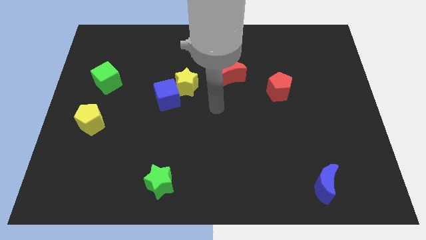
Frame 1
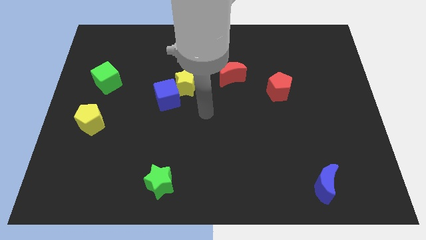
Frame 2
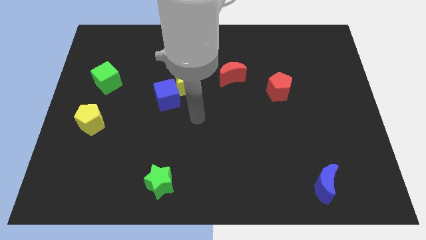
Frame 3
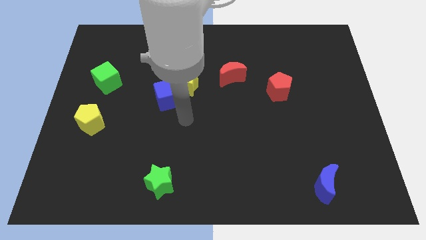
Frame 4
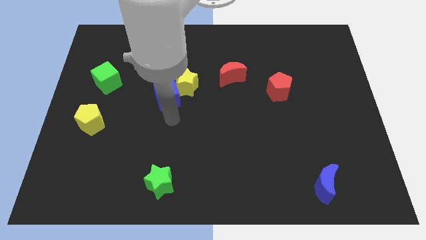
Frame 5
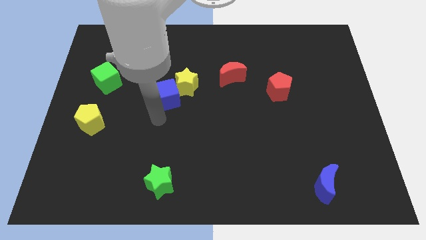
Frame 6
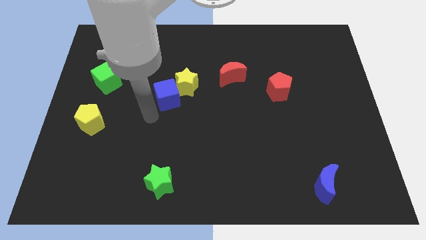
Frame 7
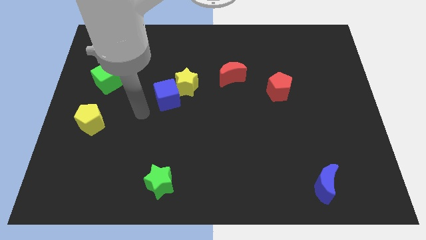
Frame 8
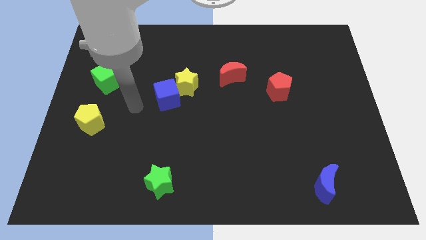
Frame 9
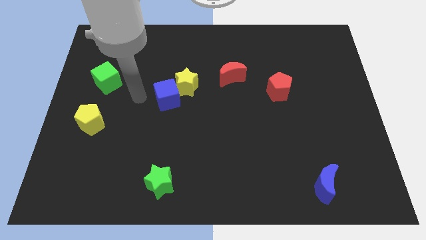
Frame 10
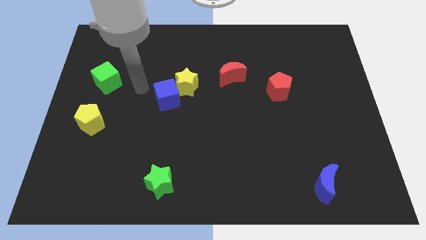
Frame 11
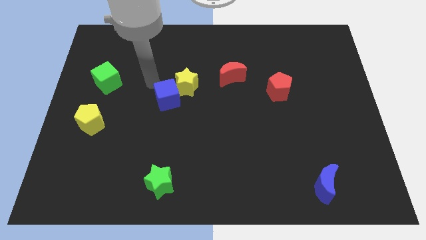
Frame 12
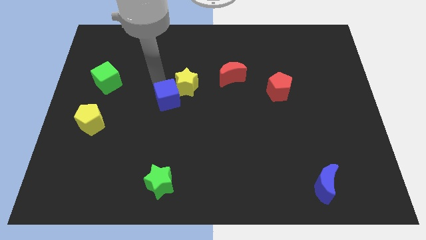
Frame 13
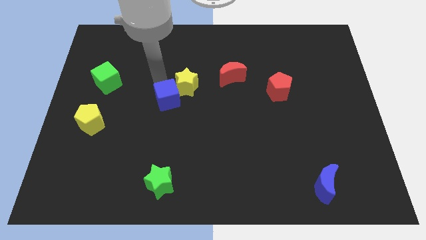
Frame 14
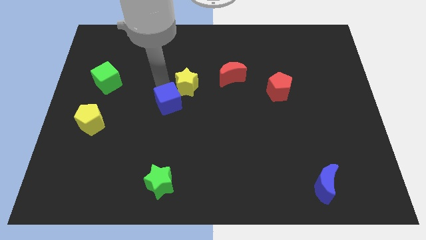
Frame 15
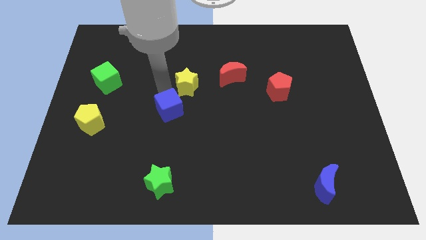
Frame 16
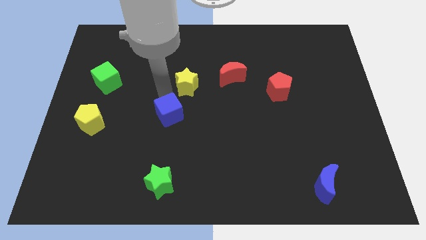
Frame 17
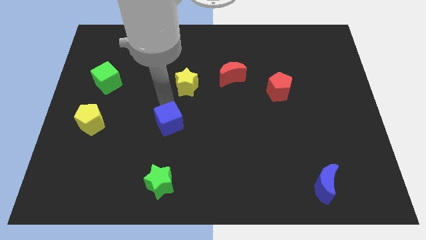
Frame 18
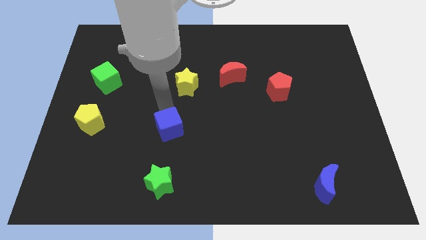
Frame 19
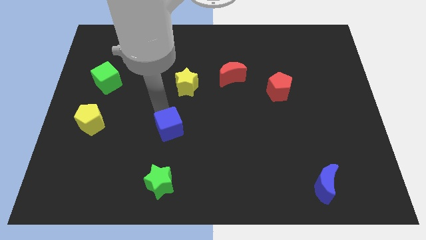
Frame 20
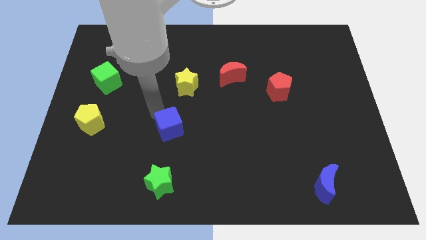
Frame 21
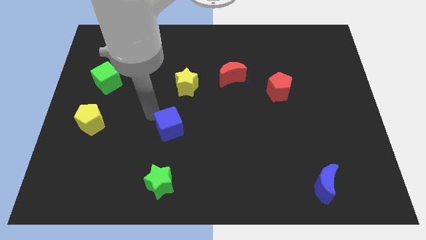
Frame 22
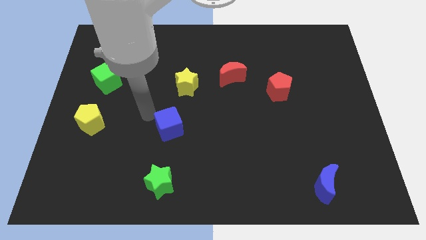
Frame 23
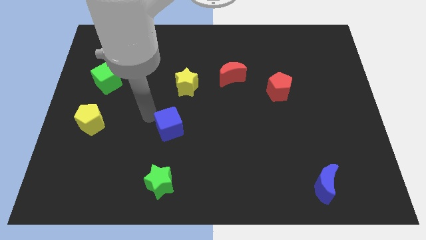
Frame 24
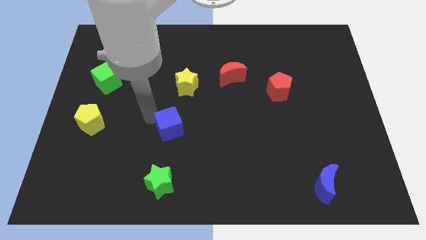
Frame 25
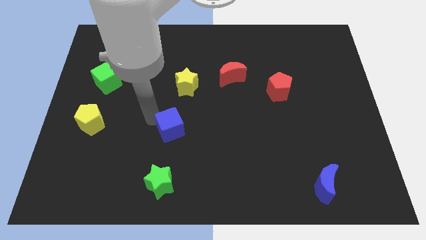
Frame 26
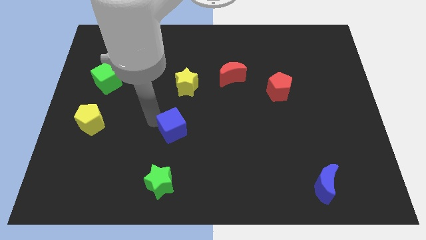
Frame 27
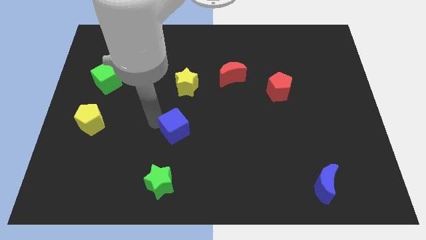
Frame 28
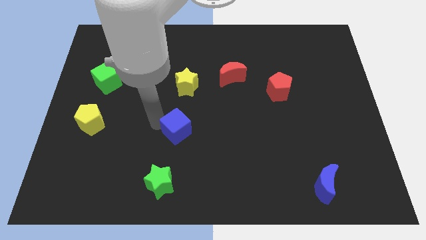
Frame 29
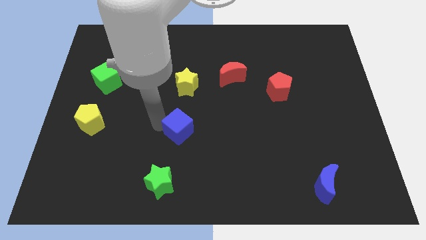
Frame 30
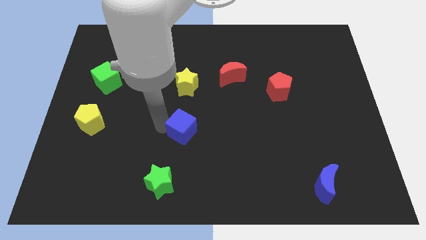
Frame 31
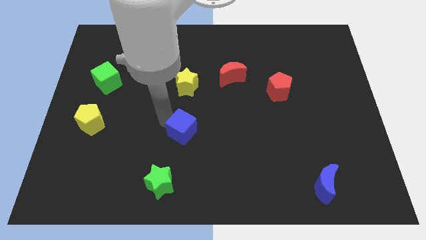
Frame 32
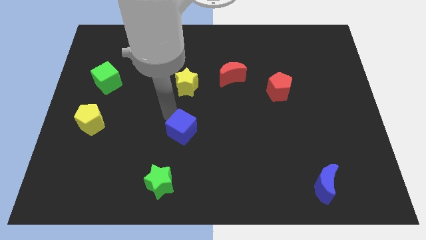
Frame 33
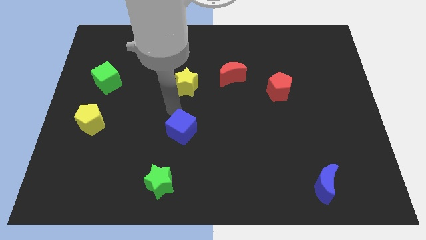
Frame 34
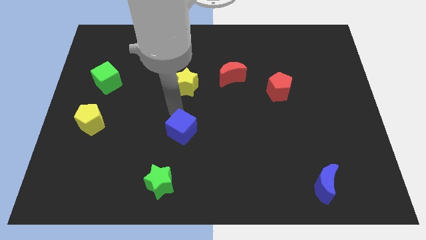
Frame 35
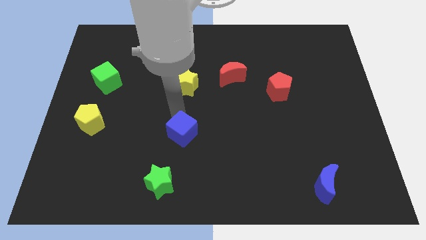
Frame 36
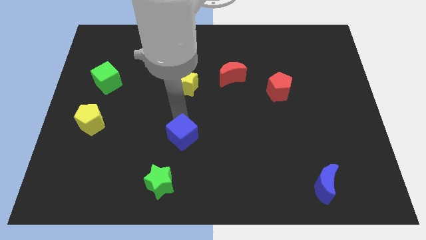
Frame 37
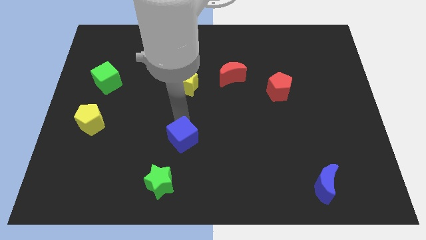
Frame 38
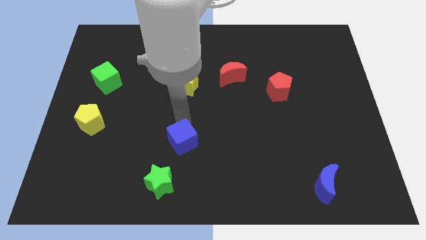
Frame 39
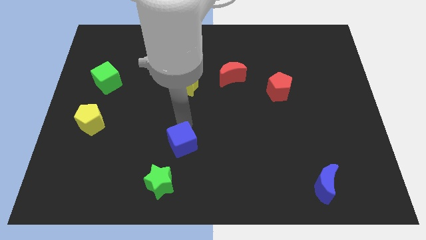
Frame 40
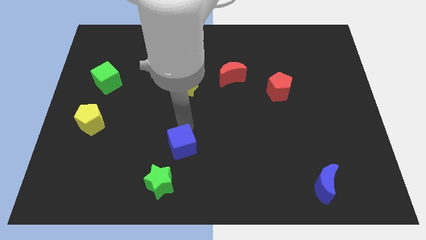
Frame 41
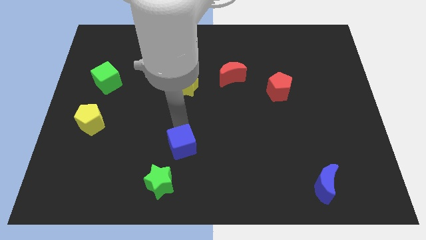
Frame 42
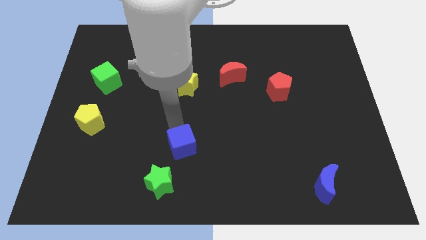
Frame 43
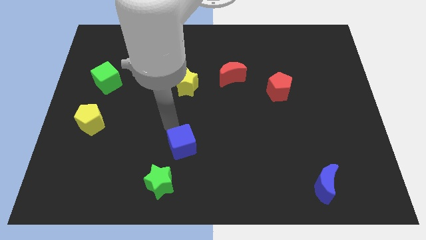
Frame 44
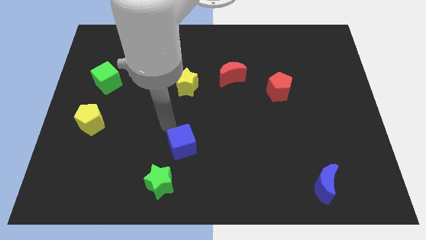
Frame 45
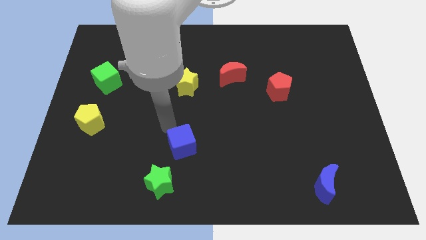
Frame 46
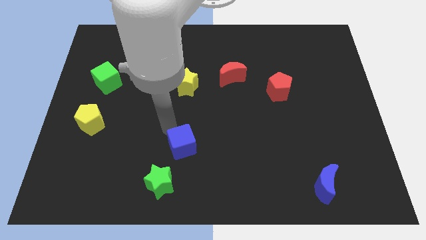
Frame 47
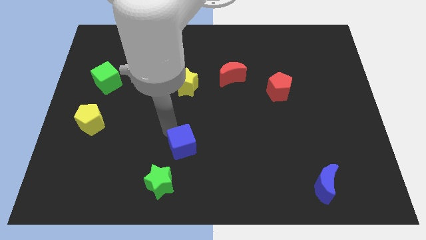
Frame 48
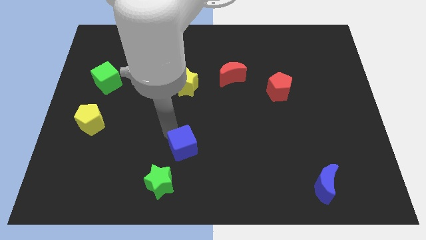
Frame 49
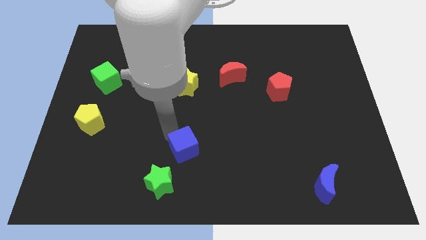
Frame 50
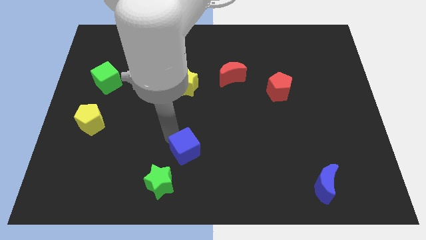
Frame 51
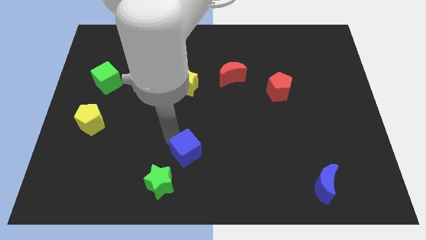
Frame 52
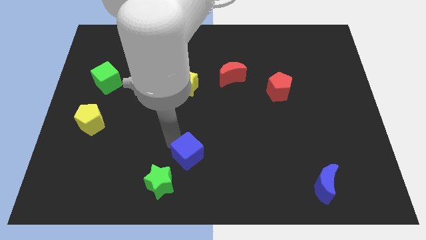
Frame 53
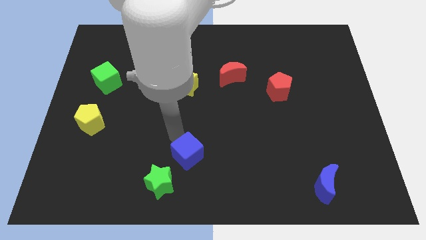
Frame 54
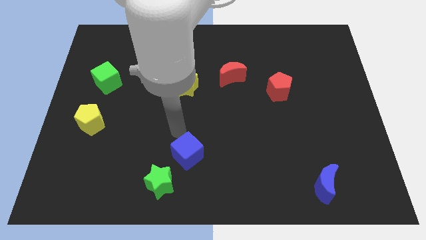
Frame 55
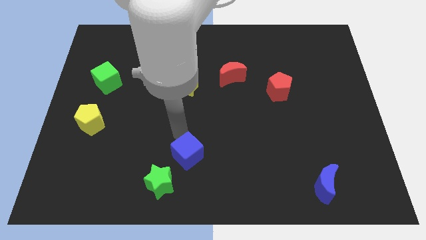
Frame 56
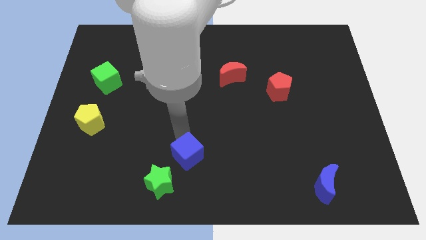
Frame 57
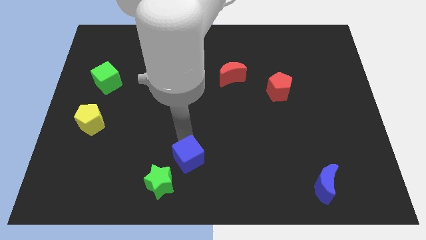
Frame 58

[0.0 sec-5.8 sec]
move the blue cube to the bottom side

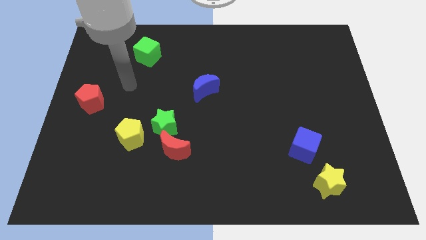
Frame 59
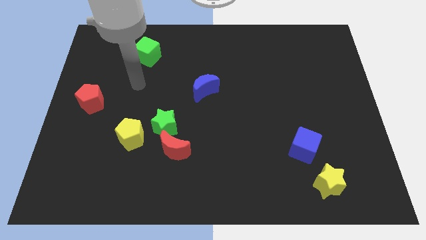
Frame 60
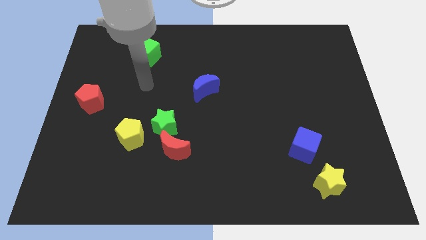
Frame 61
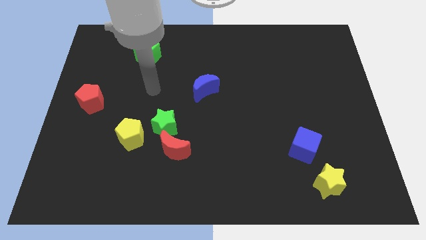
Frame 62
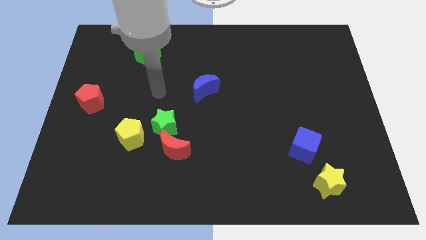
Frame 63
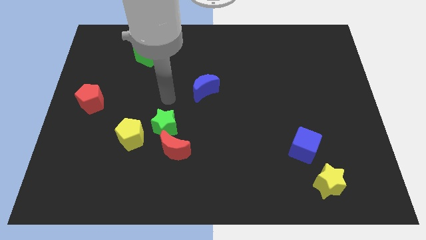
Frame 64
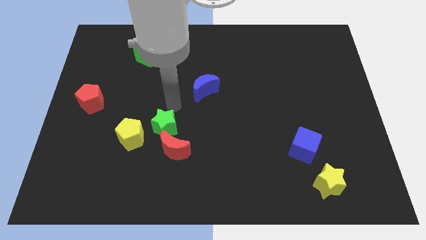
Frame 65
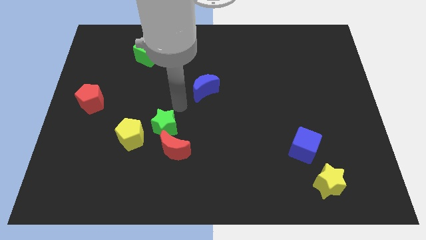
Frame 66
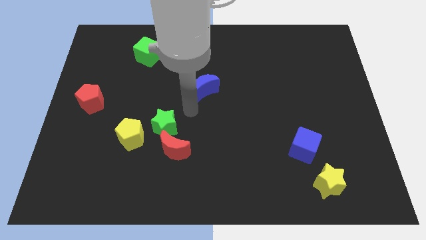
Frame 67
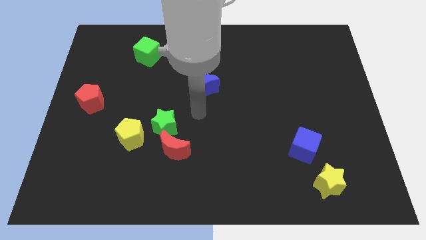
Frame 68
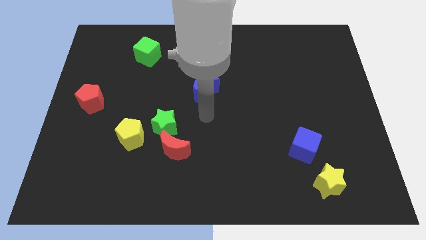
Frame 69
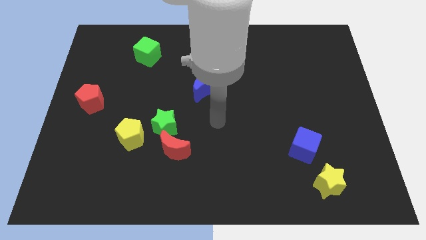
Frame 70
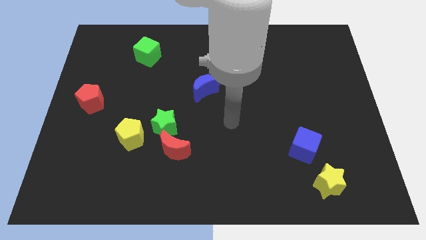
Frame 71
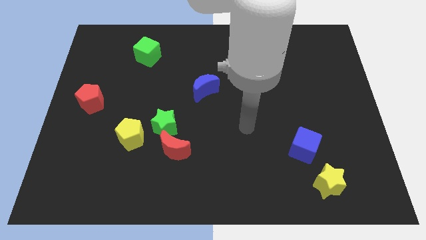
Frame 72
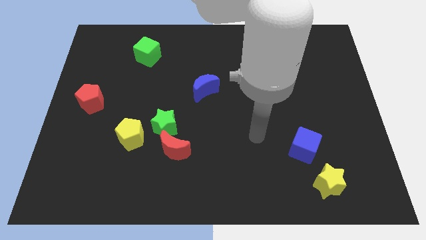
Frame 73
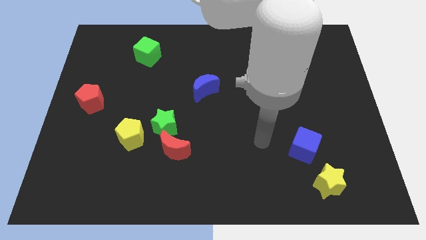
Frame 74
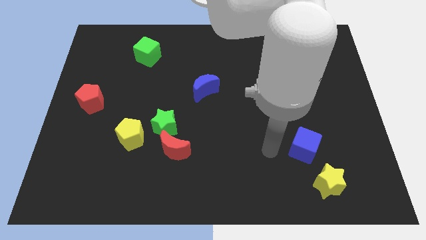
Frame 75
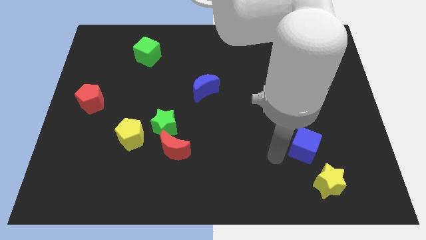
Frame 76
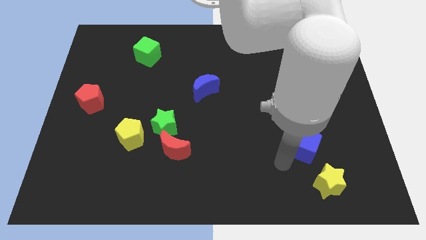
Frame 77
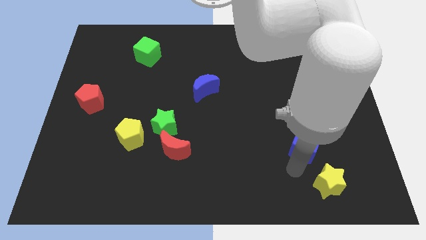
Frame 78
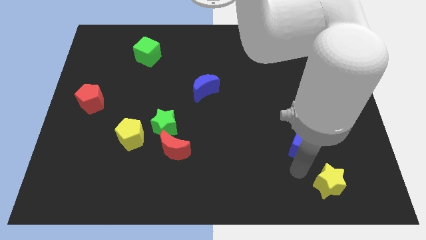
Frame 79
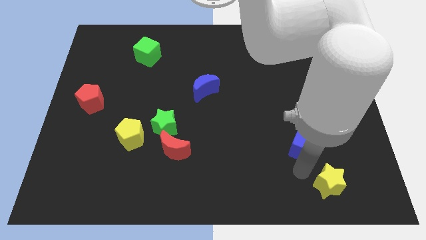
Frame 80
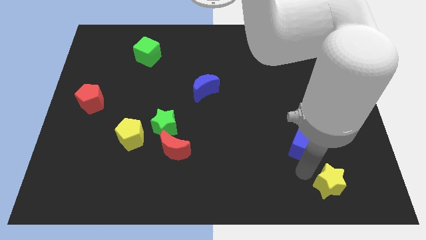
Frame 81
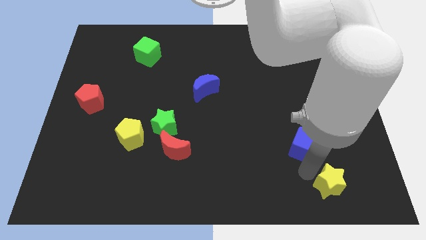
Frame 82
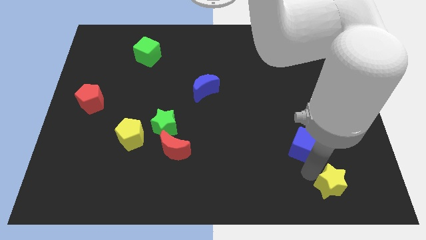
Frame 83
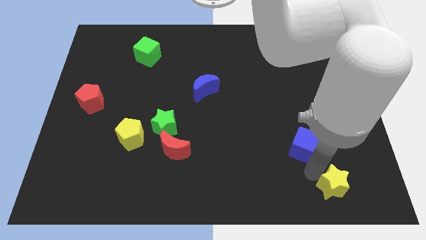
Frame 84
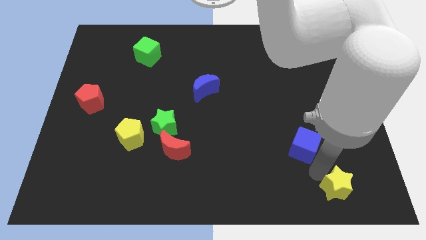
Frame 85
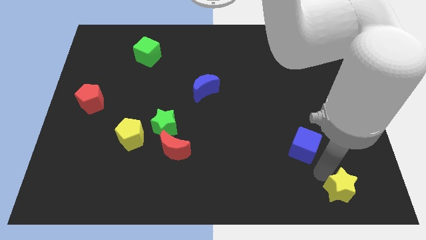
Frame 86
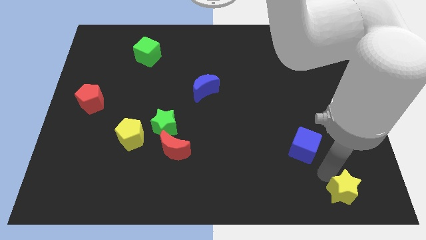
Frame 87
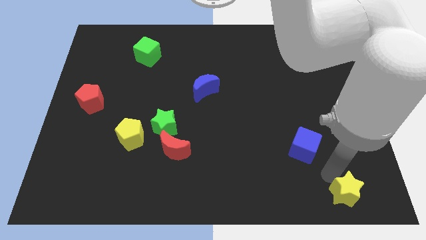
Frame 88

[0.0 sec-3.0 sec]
put the yellow star to the bottom right corner
